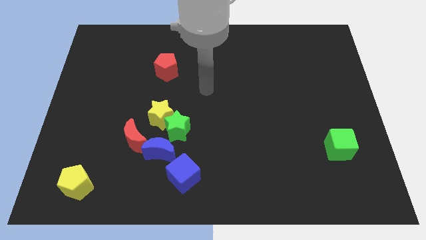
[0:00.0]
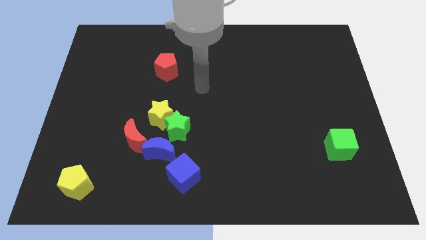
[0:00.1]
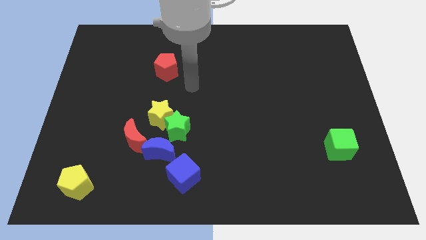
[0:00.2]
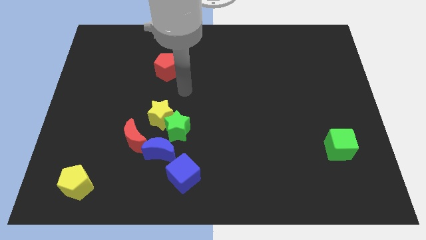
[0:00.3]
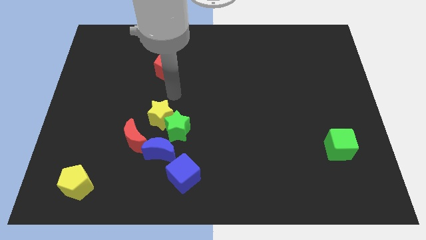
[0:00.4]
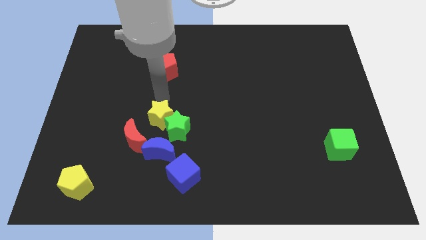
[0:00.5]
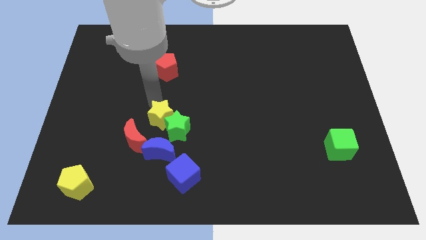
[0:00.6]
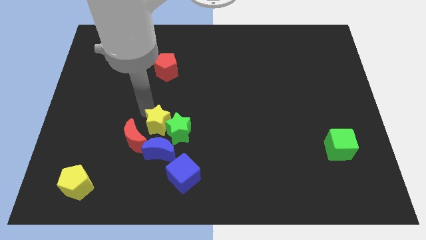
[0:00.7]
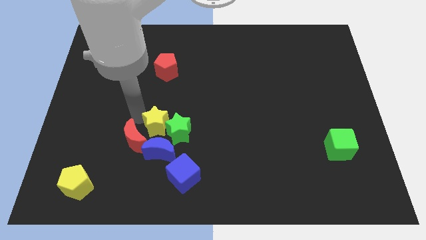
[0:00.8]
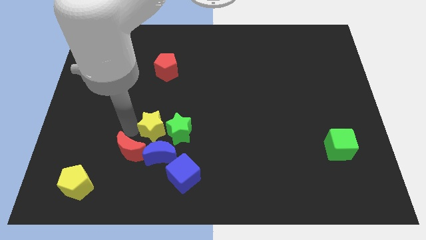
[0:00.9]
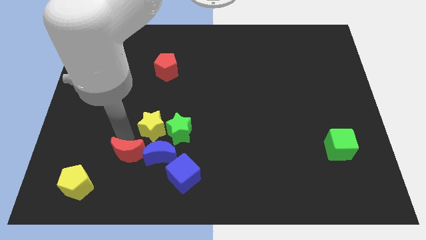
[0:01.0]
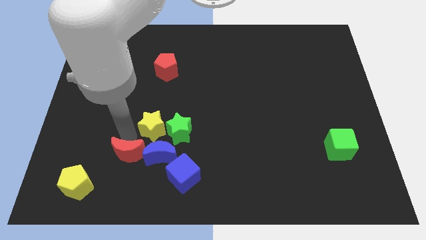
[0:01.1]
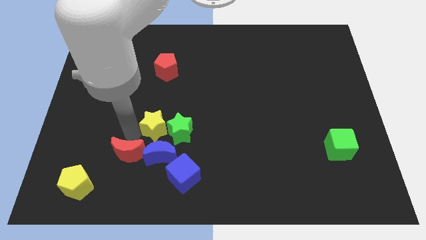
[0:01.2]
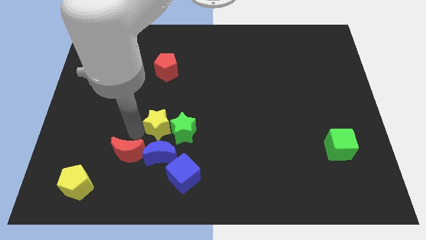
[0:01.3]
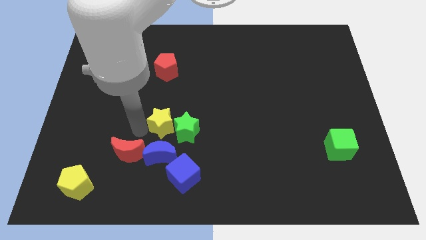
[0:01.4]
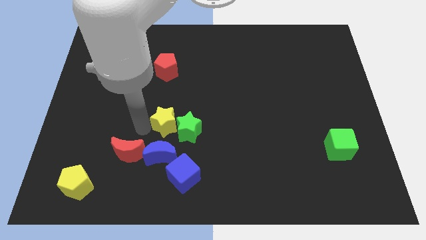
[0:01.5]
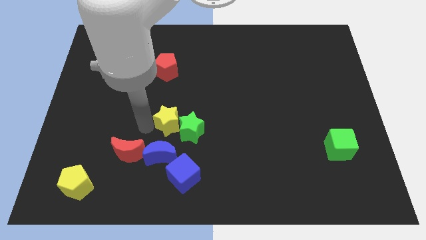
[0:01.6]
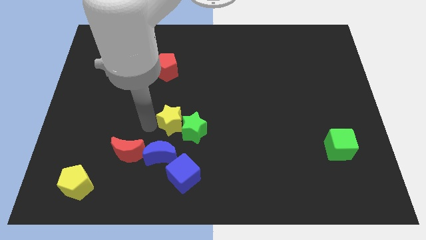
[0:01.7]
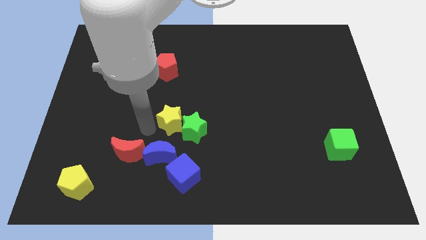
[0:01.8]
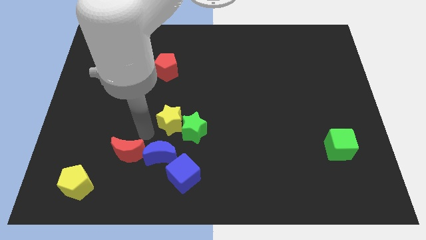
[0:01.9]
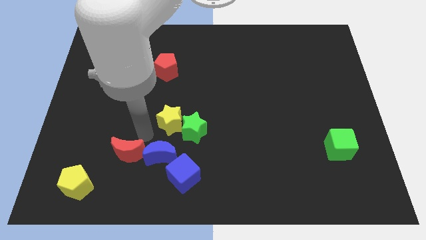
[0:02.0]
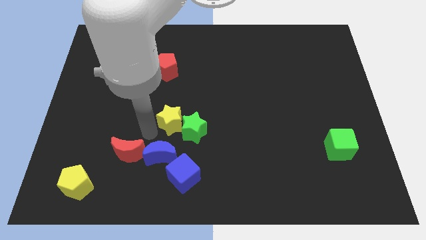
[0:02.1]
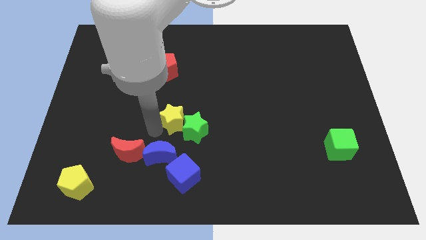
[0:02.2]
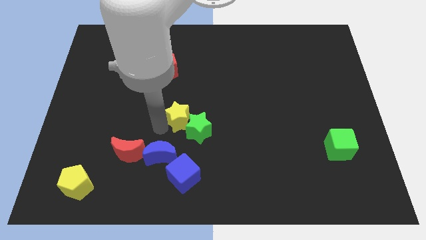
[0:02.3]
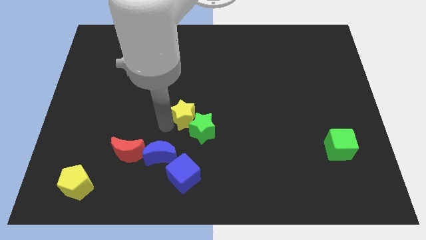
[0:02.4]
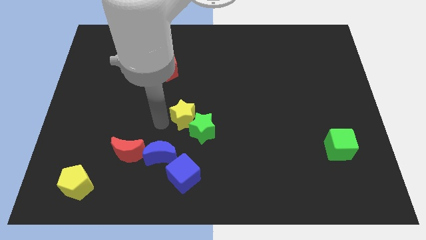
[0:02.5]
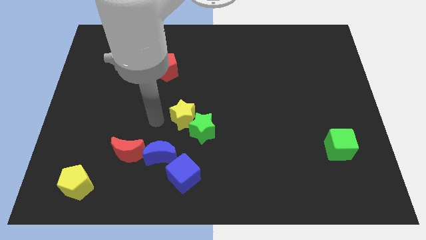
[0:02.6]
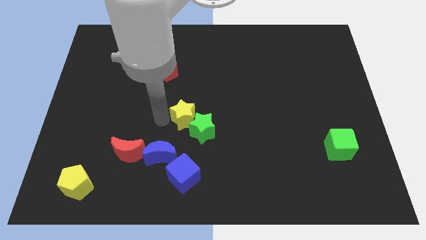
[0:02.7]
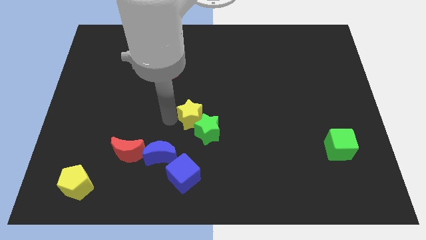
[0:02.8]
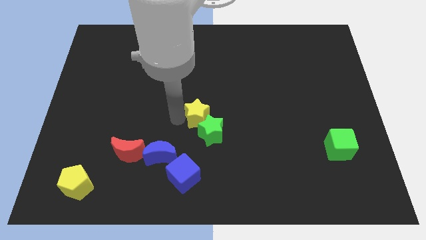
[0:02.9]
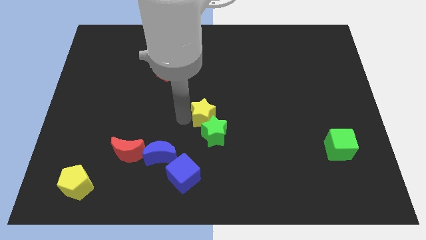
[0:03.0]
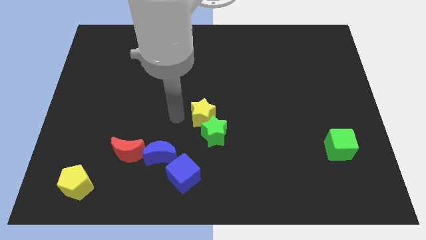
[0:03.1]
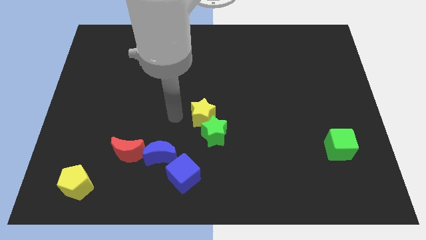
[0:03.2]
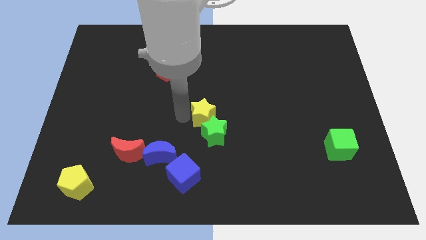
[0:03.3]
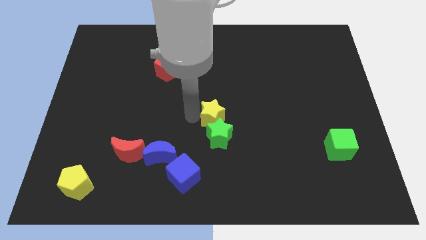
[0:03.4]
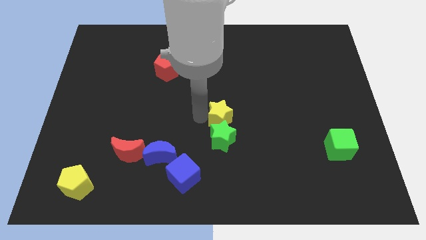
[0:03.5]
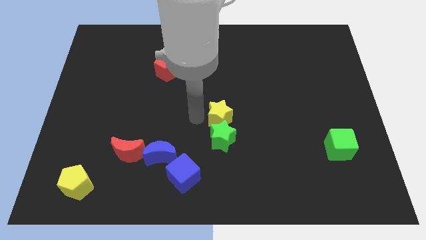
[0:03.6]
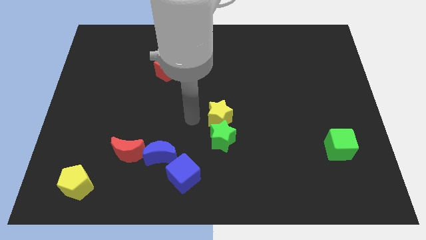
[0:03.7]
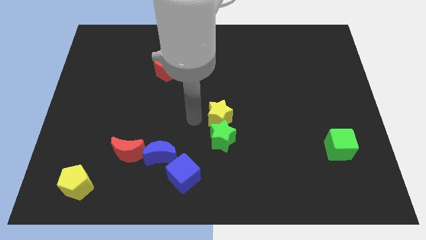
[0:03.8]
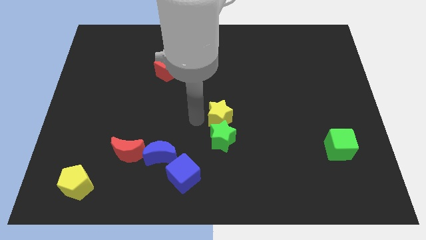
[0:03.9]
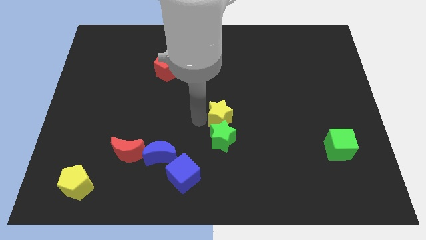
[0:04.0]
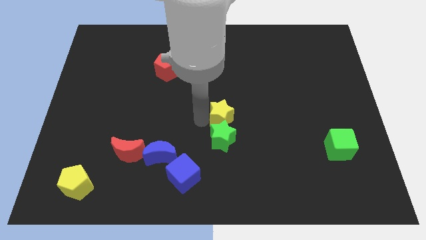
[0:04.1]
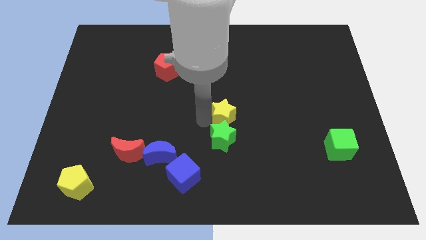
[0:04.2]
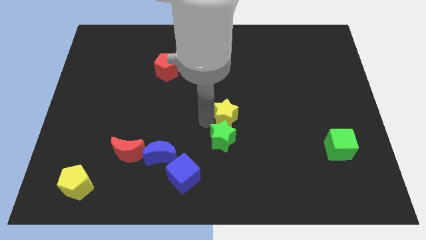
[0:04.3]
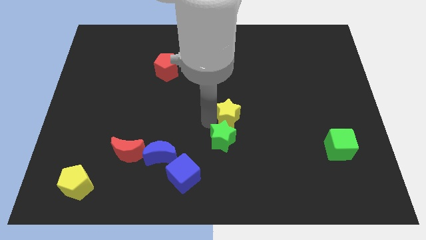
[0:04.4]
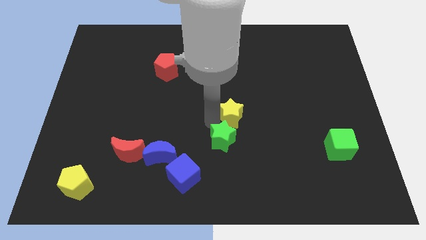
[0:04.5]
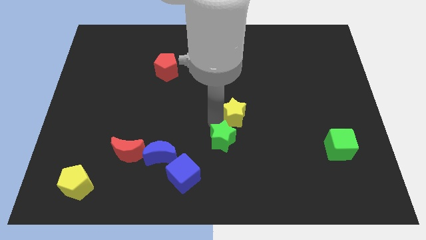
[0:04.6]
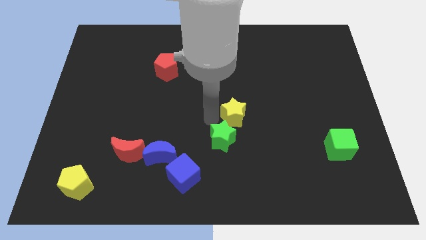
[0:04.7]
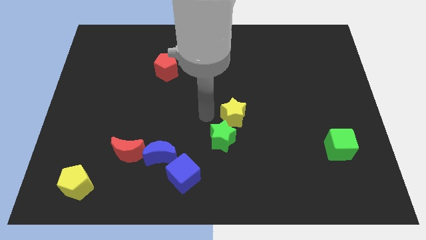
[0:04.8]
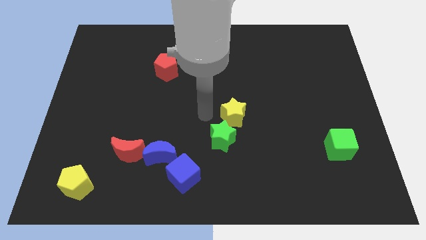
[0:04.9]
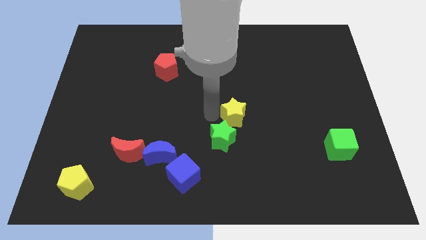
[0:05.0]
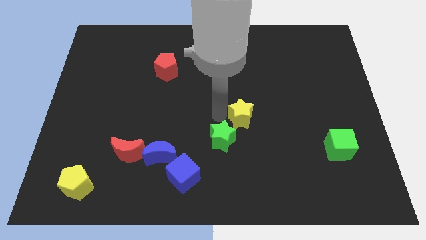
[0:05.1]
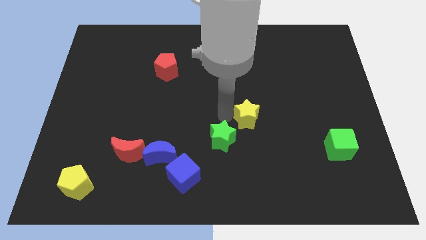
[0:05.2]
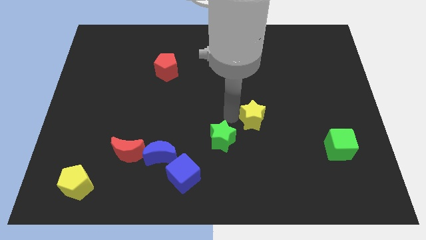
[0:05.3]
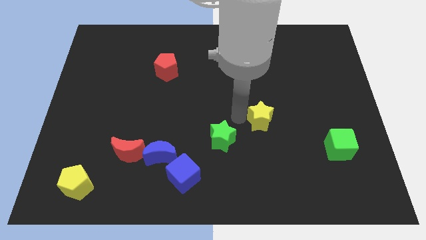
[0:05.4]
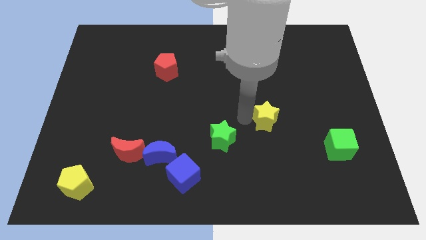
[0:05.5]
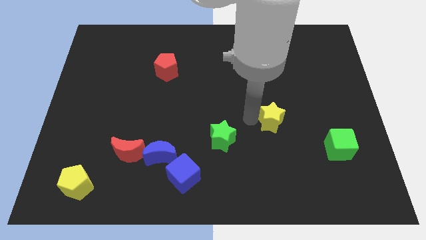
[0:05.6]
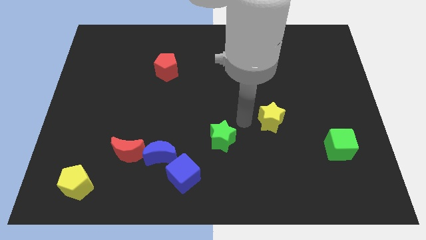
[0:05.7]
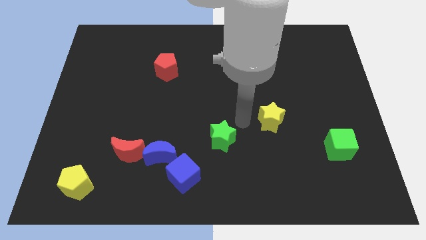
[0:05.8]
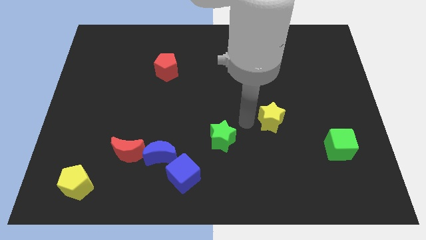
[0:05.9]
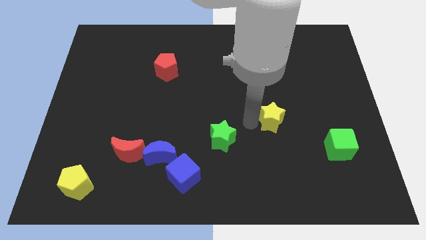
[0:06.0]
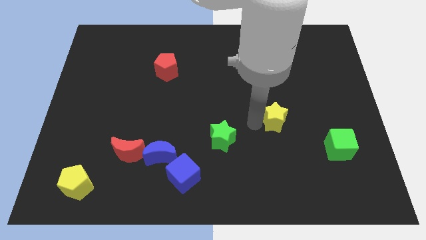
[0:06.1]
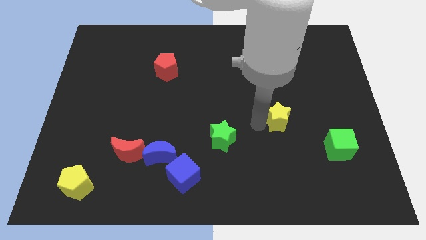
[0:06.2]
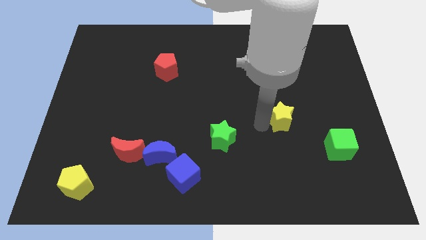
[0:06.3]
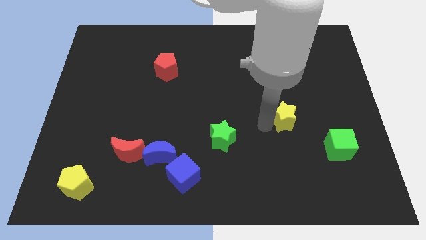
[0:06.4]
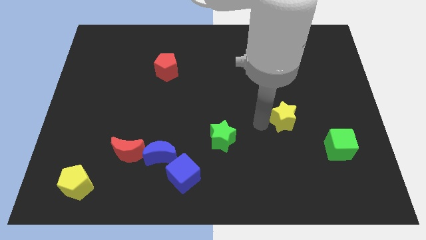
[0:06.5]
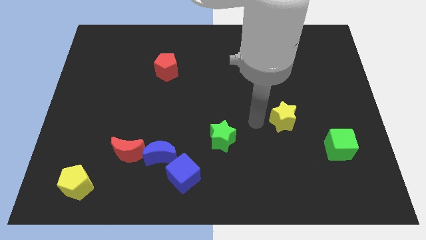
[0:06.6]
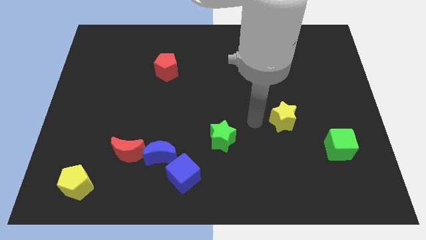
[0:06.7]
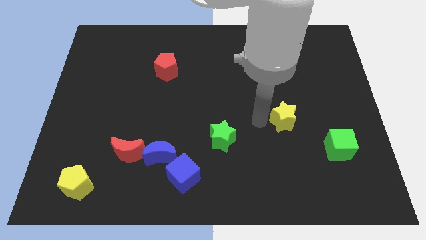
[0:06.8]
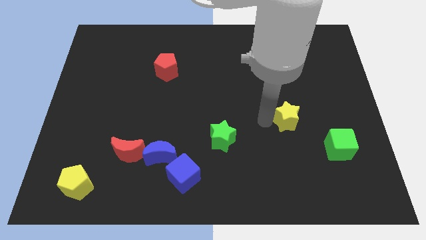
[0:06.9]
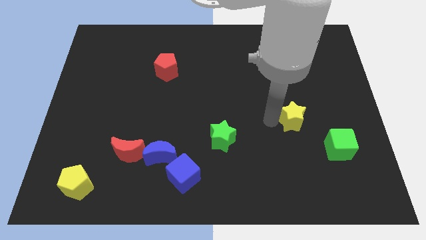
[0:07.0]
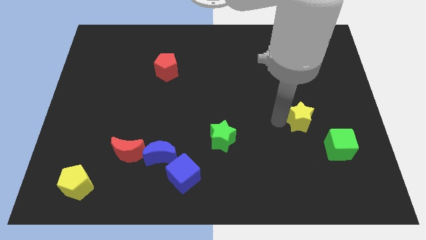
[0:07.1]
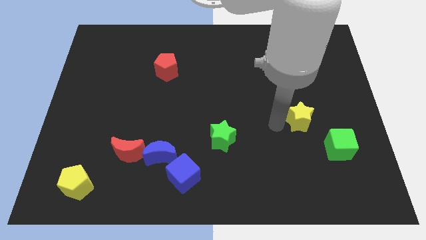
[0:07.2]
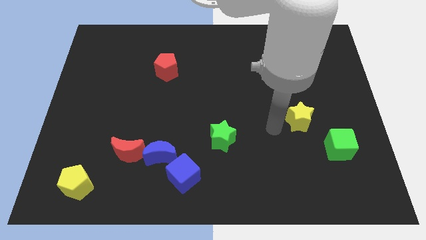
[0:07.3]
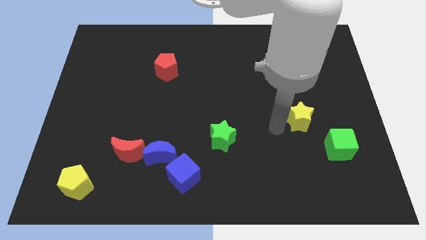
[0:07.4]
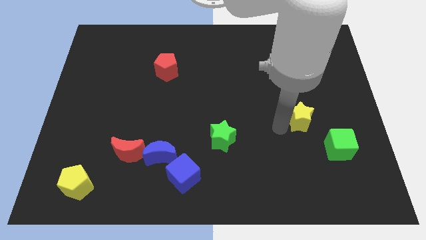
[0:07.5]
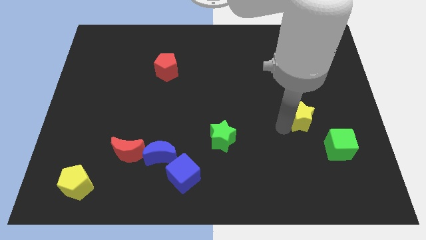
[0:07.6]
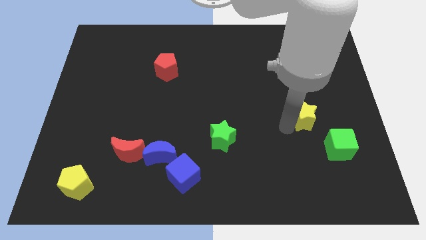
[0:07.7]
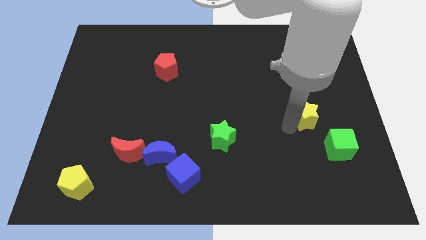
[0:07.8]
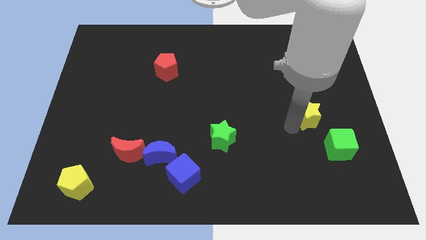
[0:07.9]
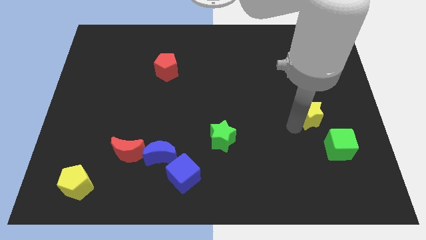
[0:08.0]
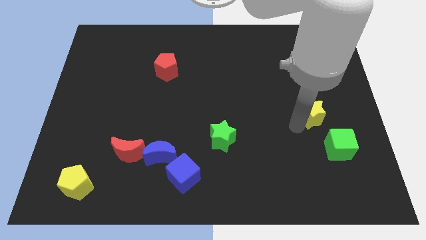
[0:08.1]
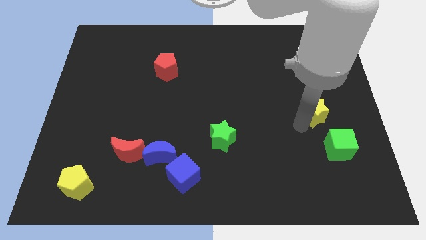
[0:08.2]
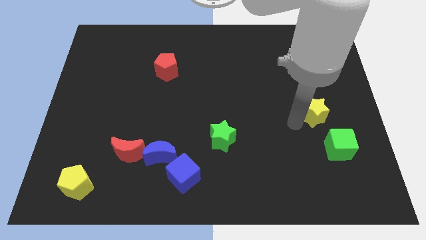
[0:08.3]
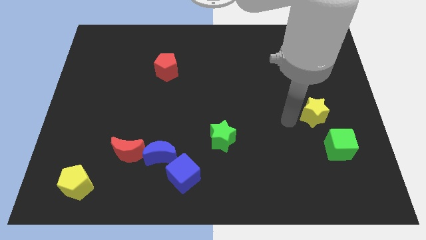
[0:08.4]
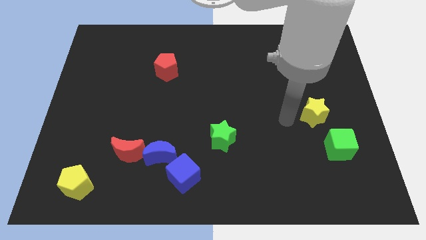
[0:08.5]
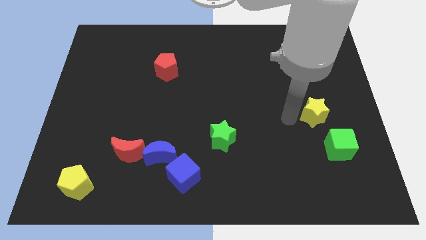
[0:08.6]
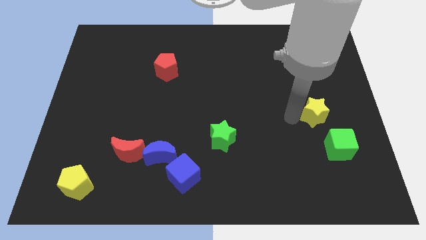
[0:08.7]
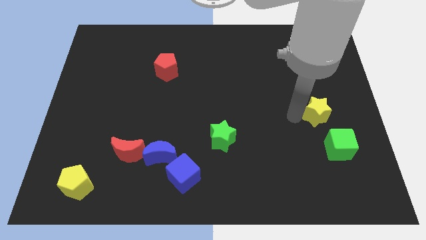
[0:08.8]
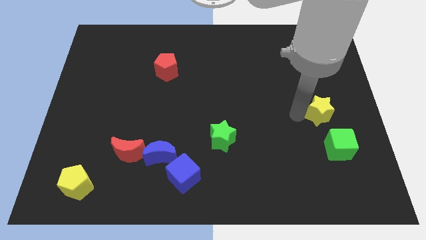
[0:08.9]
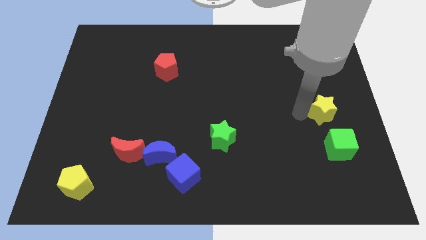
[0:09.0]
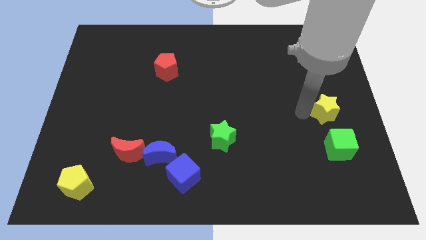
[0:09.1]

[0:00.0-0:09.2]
put the yellow star to the right side
